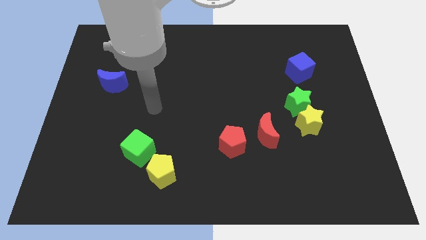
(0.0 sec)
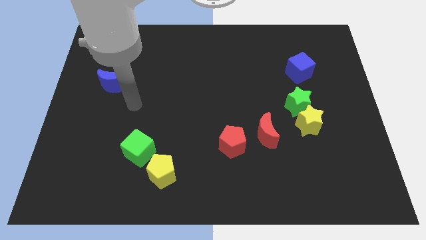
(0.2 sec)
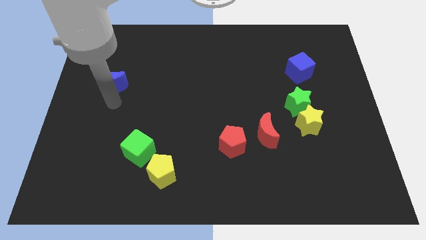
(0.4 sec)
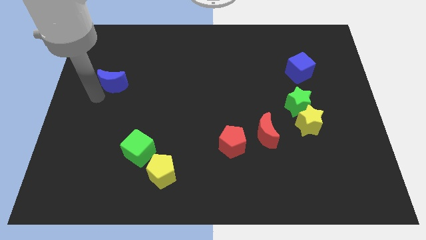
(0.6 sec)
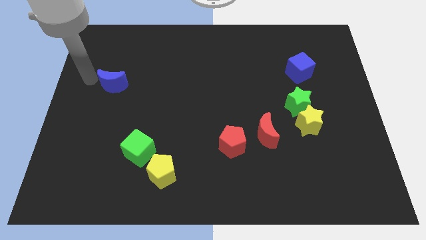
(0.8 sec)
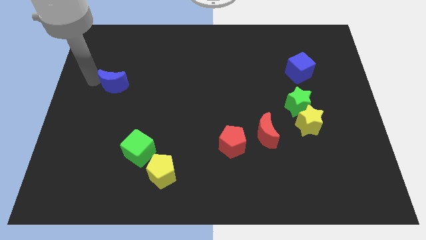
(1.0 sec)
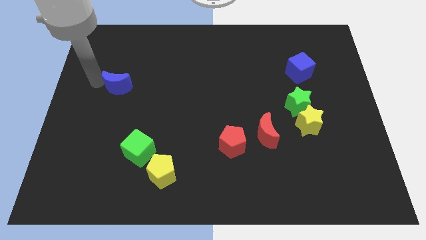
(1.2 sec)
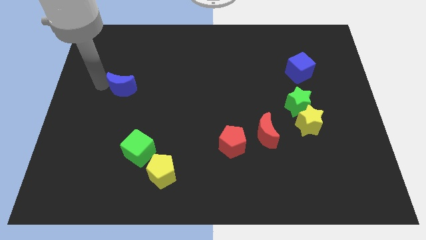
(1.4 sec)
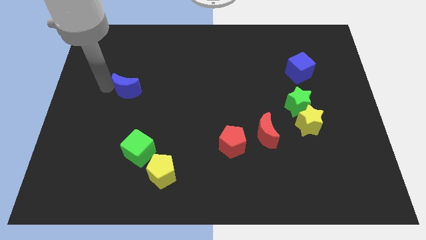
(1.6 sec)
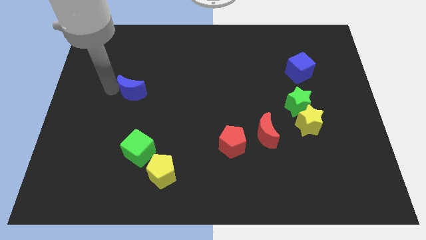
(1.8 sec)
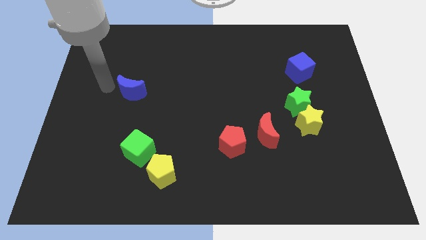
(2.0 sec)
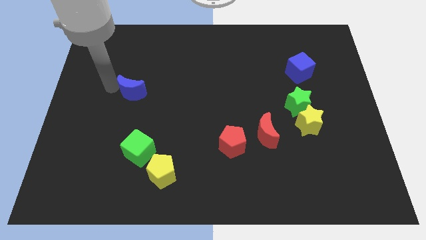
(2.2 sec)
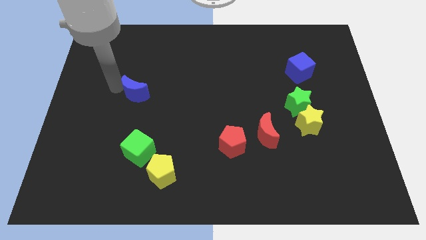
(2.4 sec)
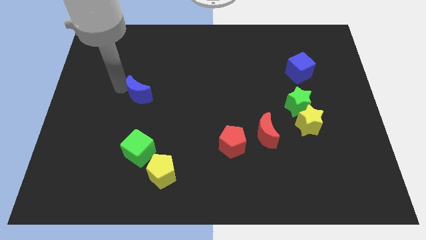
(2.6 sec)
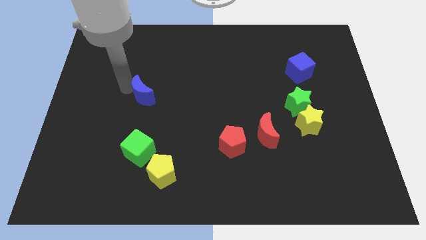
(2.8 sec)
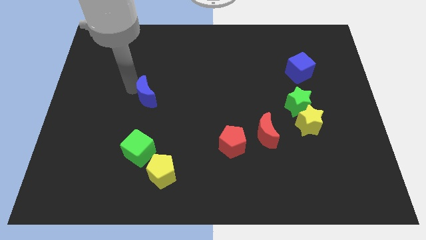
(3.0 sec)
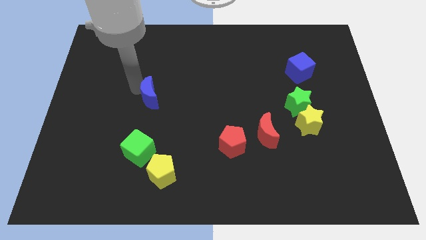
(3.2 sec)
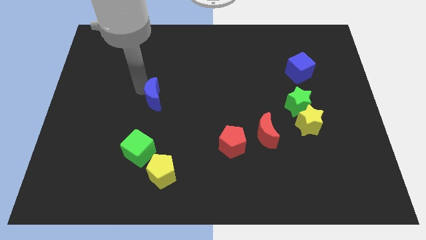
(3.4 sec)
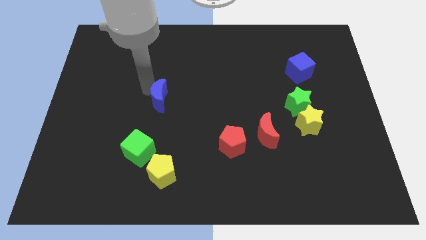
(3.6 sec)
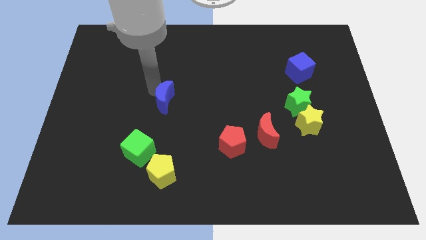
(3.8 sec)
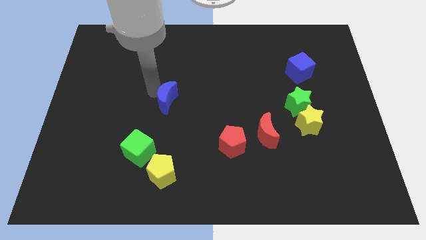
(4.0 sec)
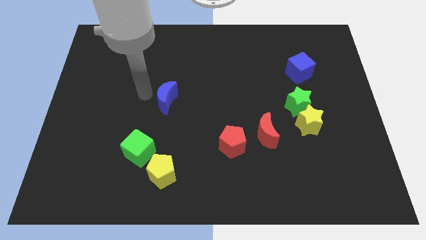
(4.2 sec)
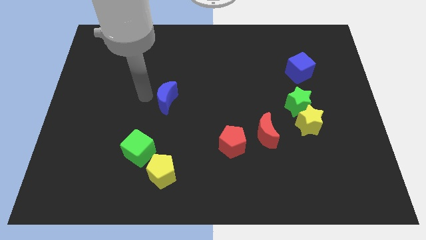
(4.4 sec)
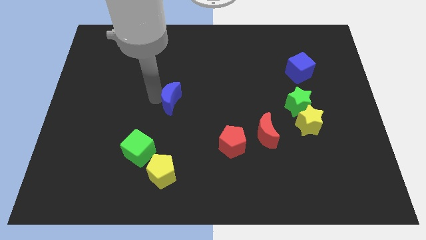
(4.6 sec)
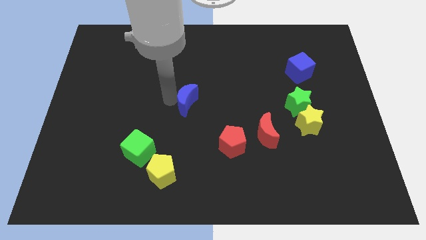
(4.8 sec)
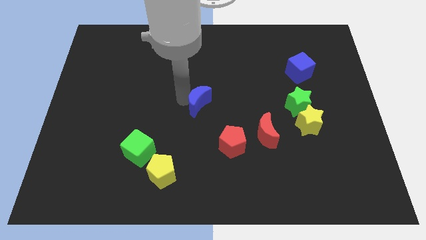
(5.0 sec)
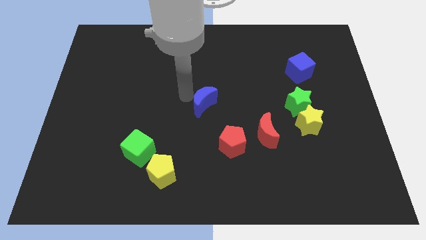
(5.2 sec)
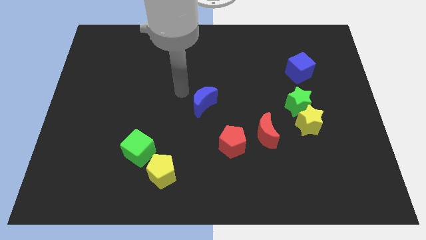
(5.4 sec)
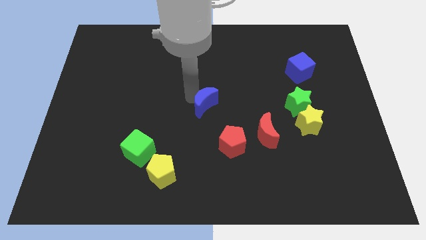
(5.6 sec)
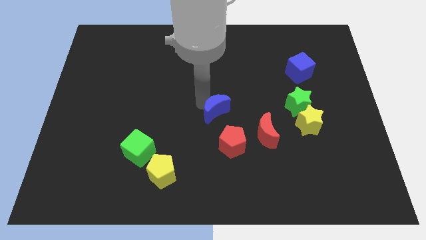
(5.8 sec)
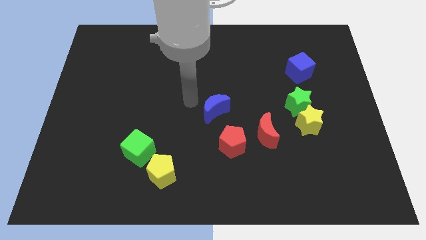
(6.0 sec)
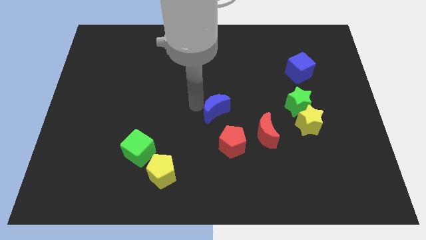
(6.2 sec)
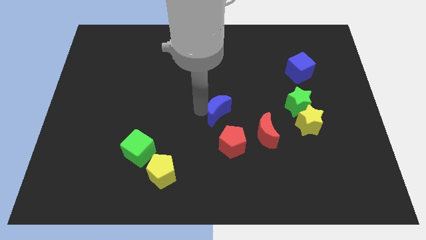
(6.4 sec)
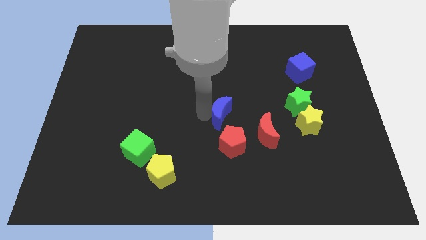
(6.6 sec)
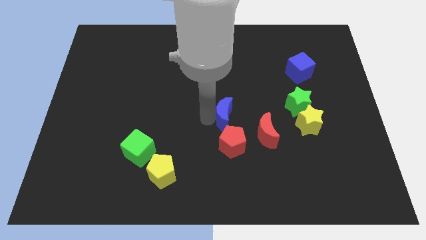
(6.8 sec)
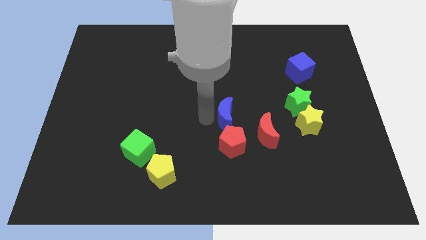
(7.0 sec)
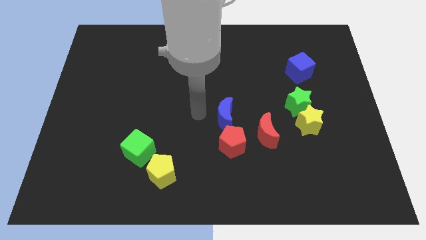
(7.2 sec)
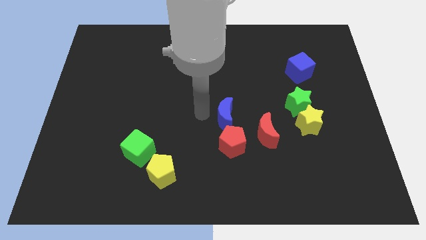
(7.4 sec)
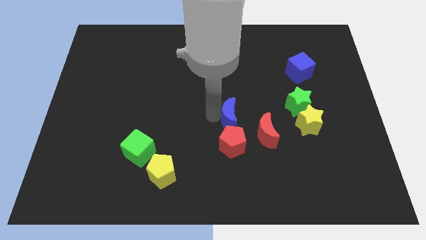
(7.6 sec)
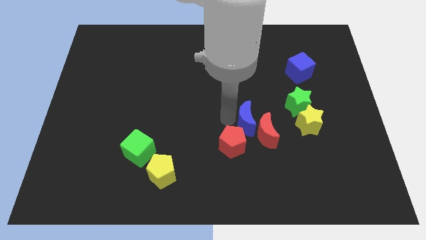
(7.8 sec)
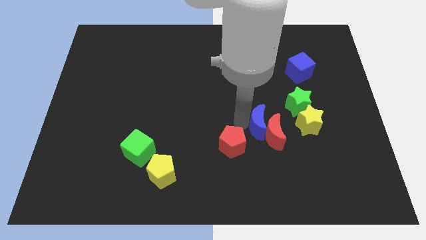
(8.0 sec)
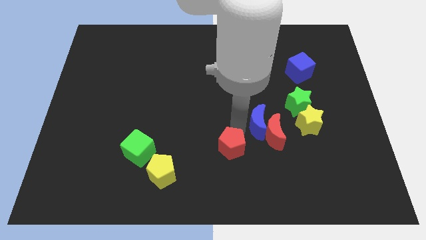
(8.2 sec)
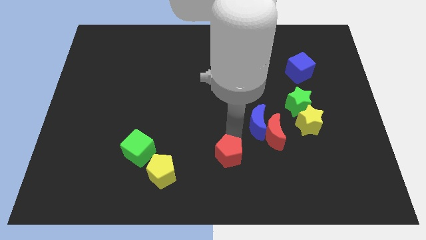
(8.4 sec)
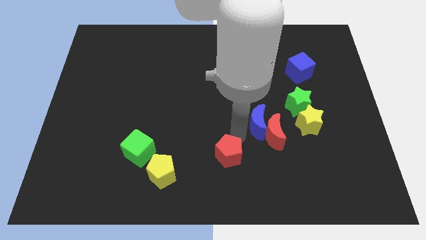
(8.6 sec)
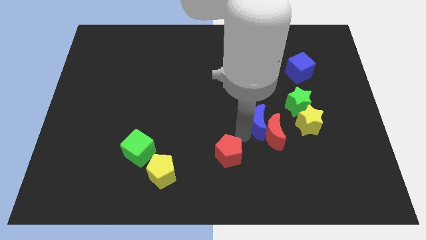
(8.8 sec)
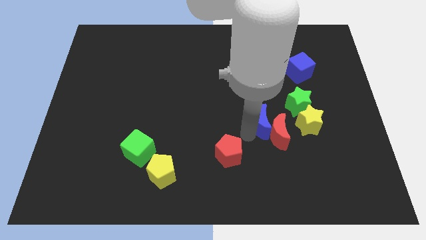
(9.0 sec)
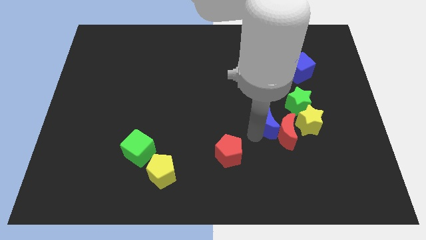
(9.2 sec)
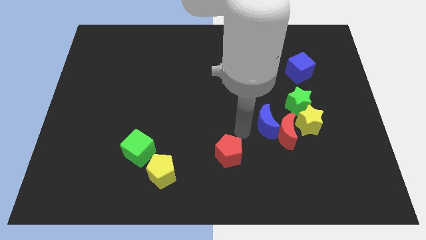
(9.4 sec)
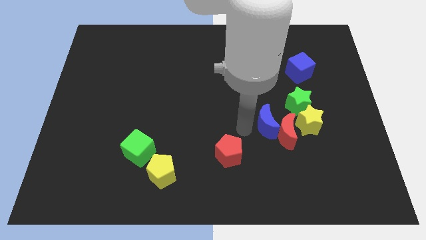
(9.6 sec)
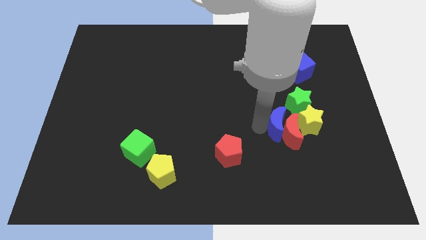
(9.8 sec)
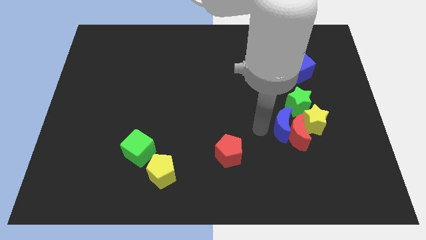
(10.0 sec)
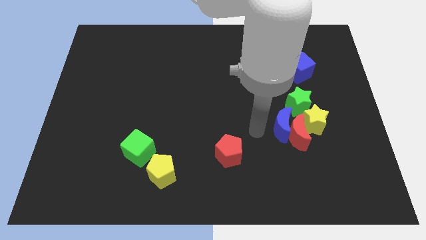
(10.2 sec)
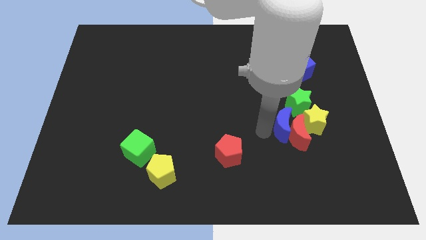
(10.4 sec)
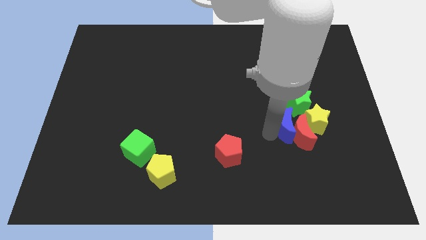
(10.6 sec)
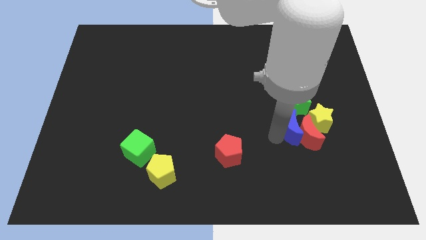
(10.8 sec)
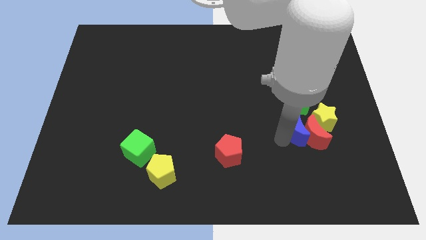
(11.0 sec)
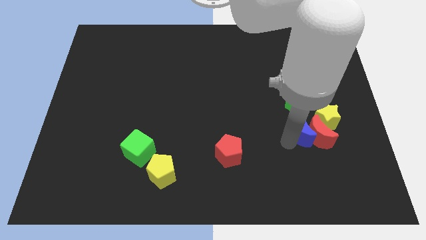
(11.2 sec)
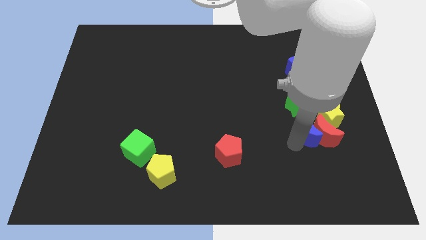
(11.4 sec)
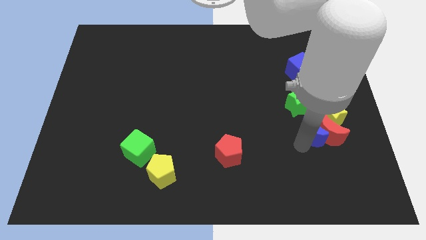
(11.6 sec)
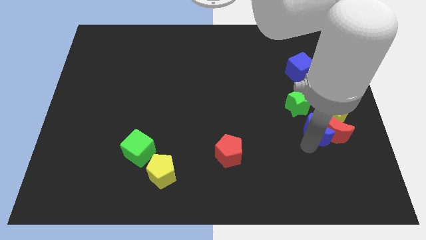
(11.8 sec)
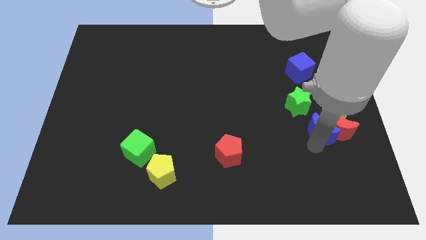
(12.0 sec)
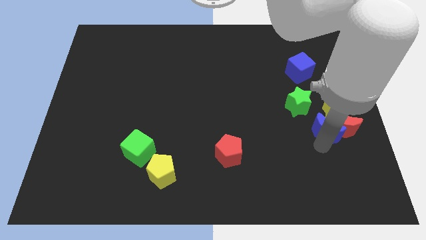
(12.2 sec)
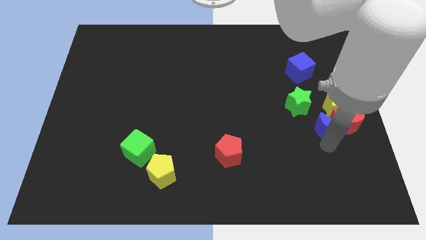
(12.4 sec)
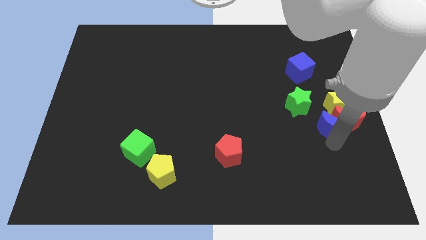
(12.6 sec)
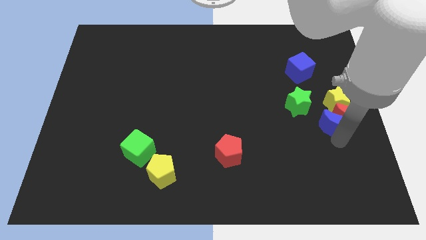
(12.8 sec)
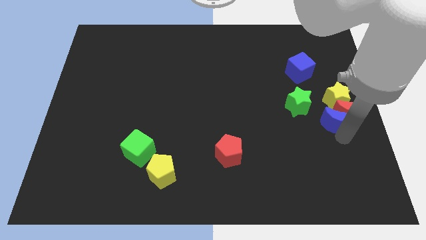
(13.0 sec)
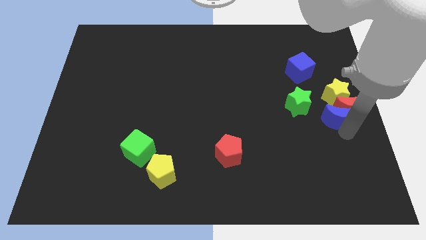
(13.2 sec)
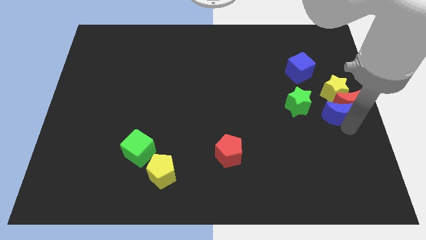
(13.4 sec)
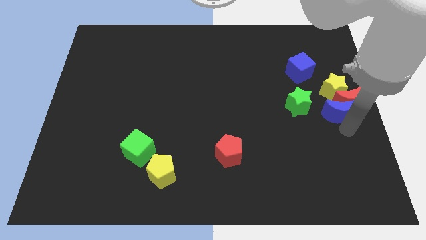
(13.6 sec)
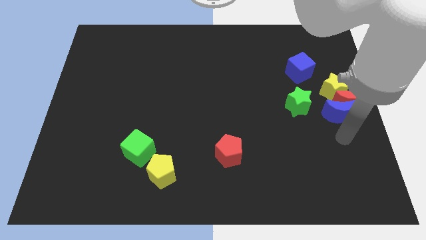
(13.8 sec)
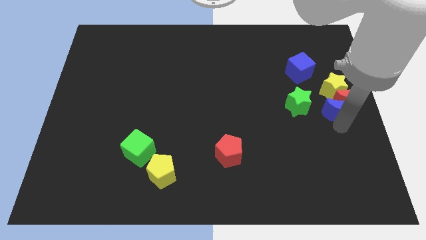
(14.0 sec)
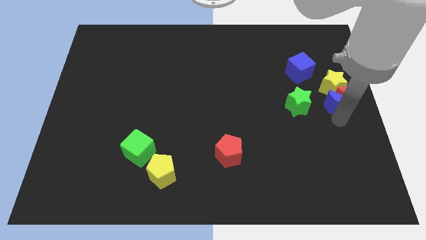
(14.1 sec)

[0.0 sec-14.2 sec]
put the blue moon towards the yellow star

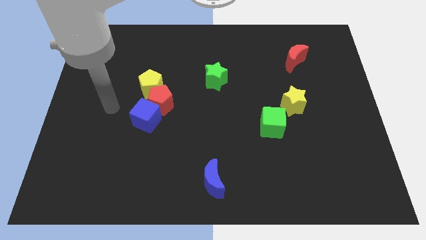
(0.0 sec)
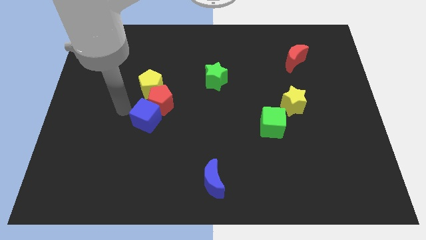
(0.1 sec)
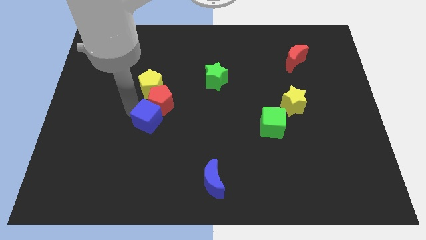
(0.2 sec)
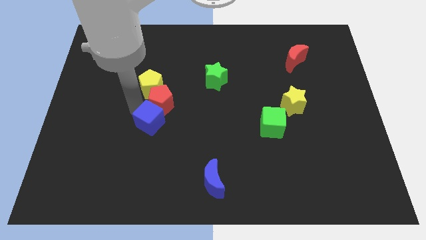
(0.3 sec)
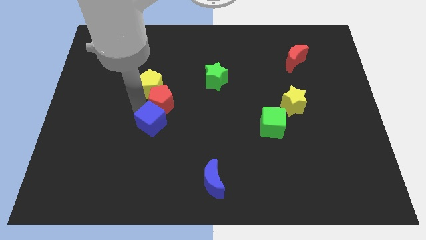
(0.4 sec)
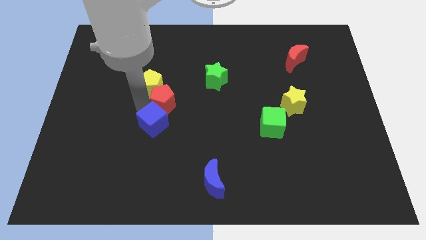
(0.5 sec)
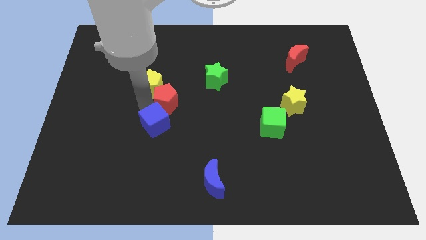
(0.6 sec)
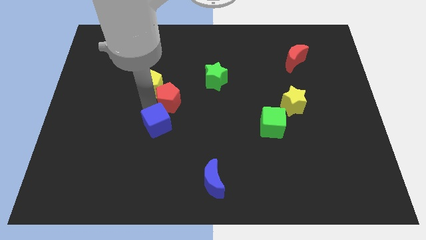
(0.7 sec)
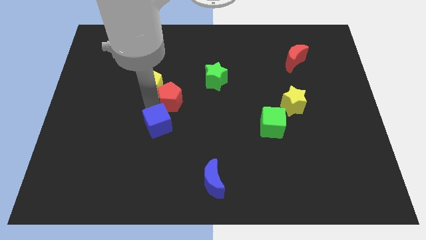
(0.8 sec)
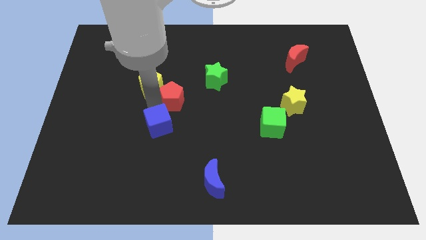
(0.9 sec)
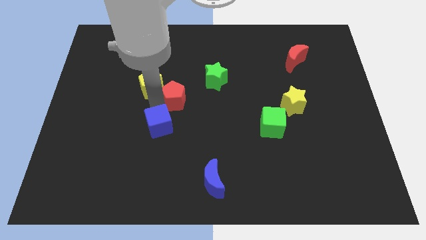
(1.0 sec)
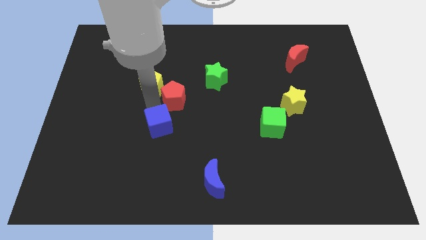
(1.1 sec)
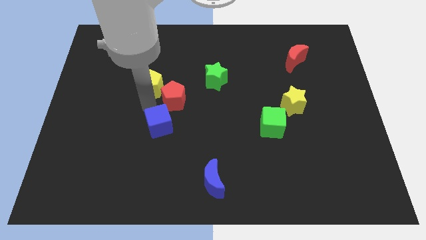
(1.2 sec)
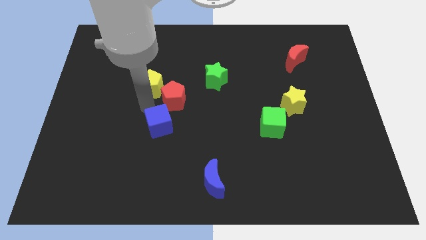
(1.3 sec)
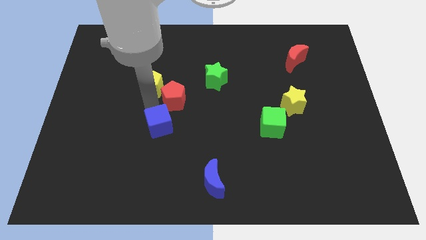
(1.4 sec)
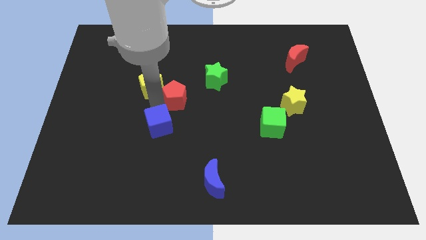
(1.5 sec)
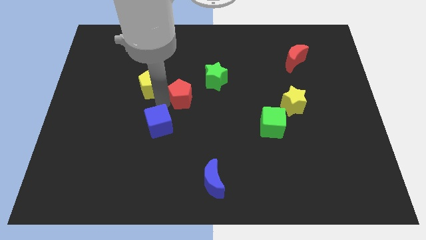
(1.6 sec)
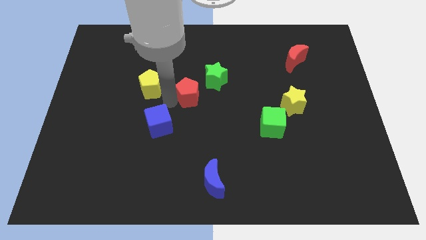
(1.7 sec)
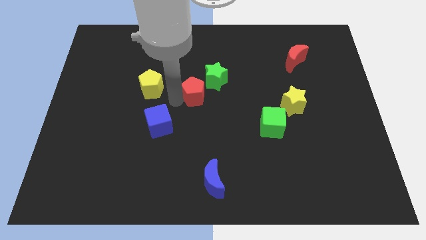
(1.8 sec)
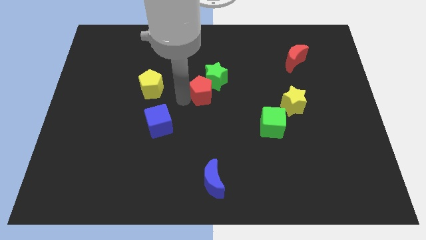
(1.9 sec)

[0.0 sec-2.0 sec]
put the red pentagon to the green star
